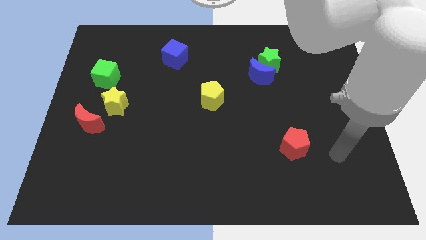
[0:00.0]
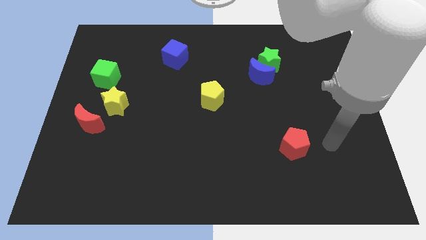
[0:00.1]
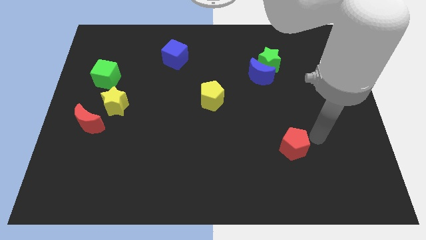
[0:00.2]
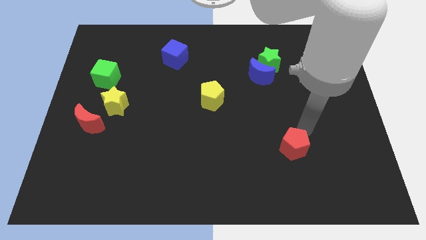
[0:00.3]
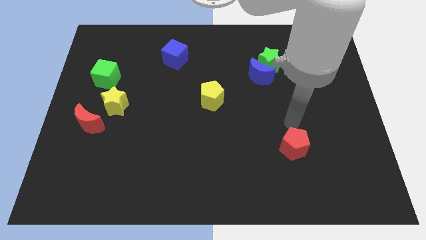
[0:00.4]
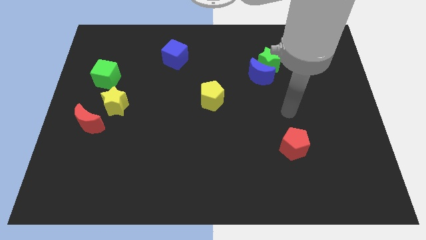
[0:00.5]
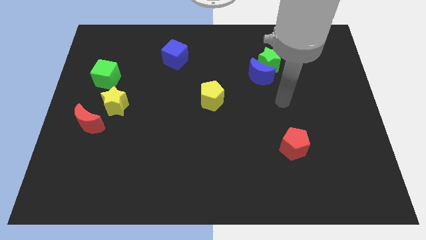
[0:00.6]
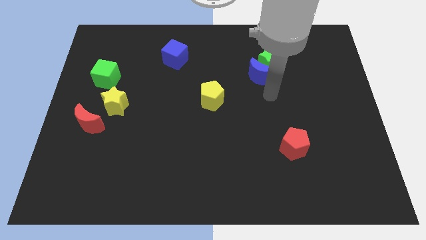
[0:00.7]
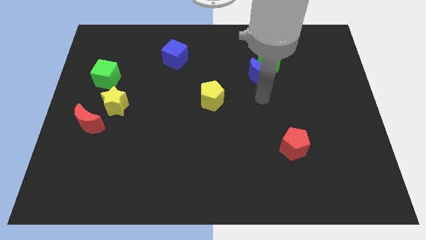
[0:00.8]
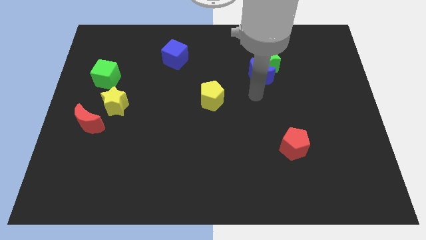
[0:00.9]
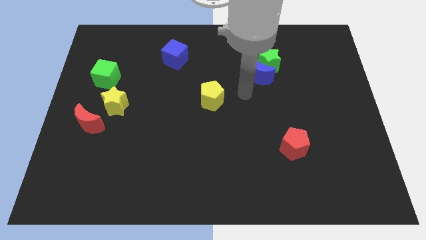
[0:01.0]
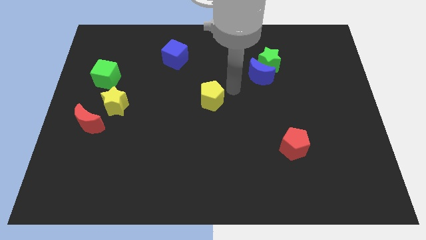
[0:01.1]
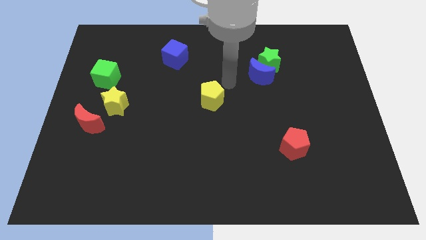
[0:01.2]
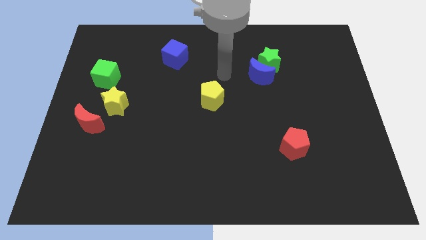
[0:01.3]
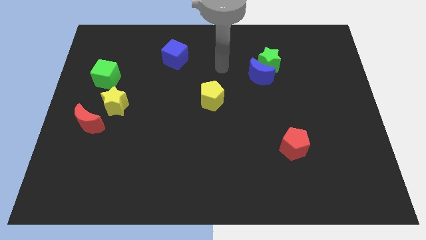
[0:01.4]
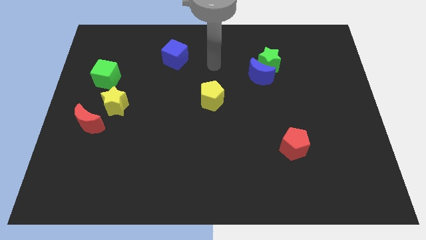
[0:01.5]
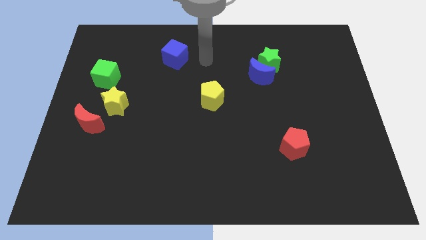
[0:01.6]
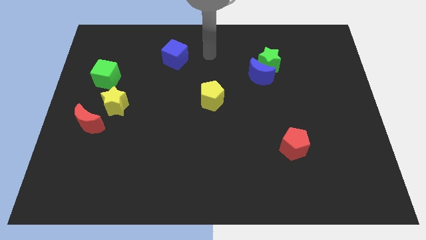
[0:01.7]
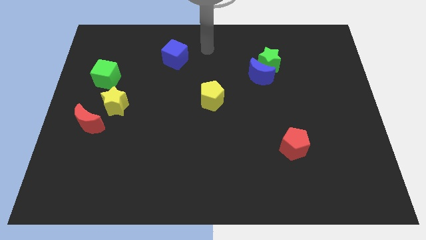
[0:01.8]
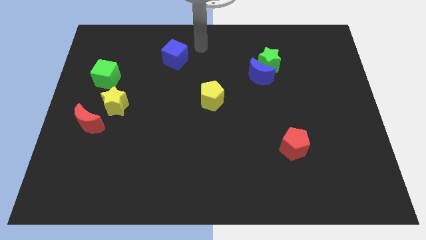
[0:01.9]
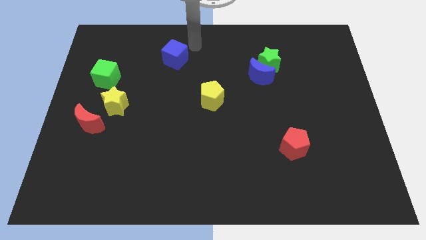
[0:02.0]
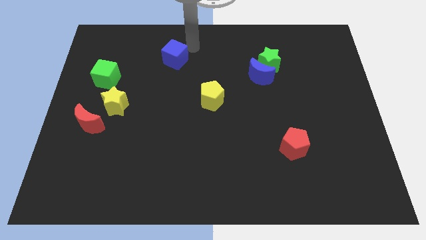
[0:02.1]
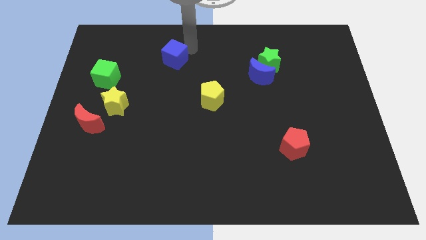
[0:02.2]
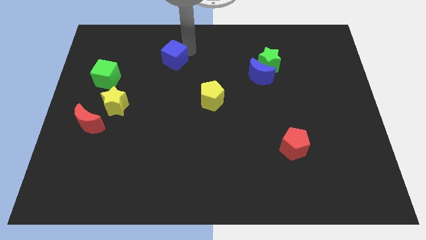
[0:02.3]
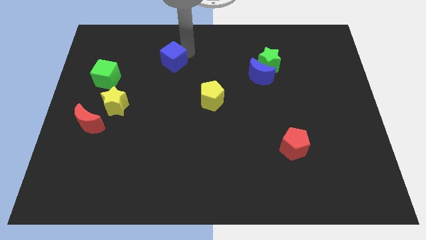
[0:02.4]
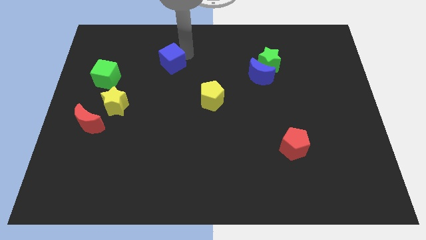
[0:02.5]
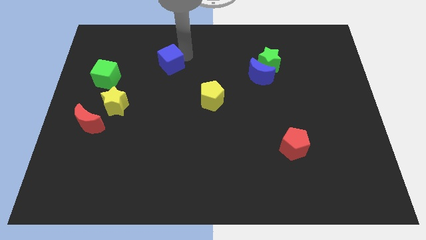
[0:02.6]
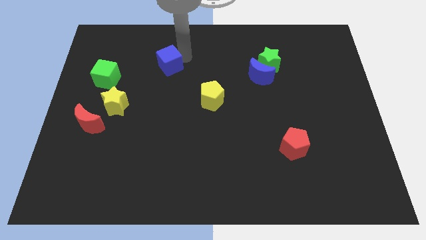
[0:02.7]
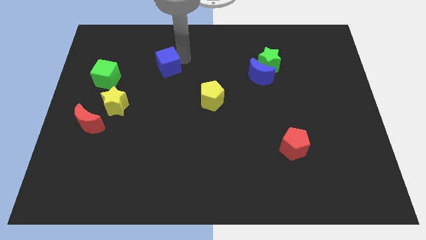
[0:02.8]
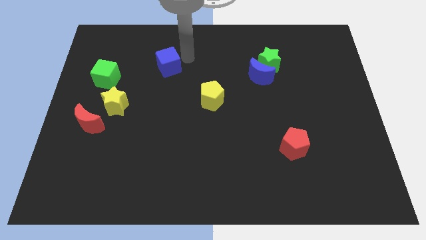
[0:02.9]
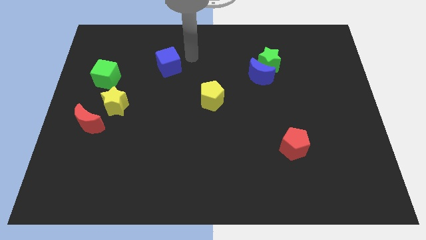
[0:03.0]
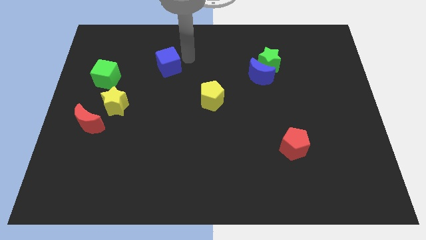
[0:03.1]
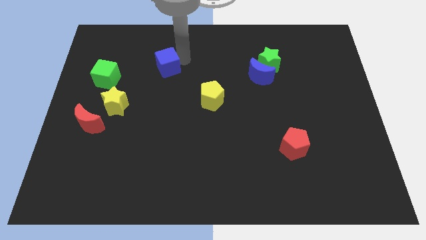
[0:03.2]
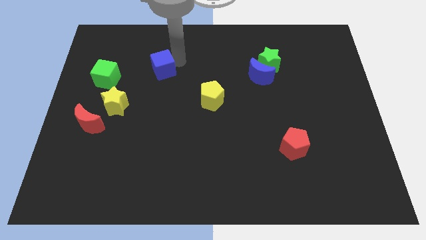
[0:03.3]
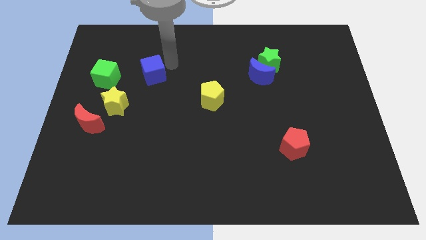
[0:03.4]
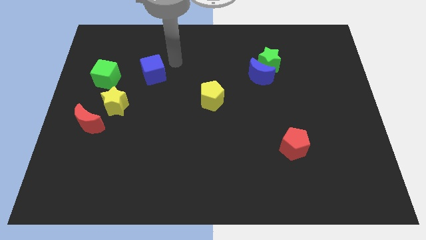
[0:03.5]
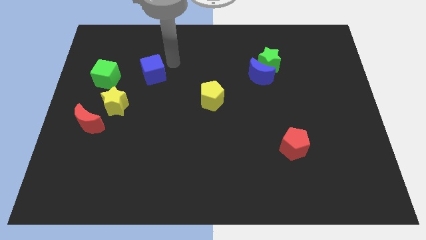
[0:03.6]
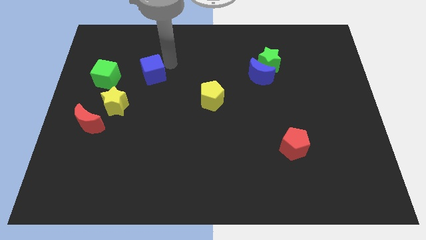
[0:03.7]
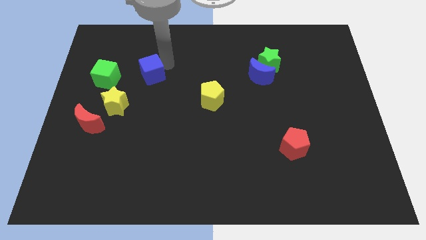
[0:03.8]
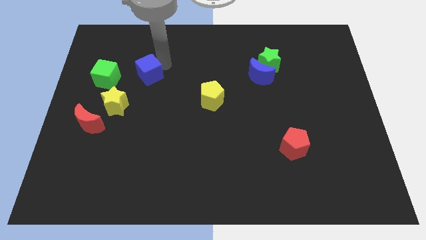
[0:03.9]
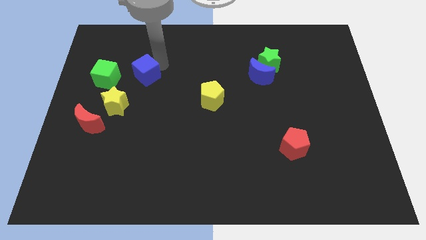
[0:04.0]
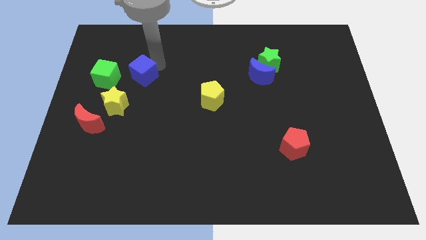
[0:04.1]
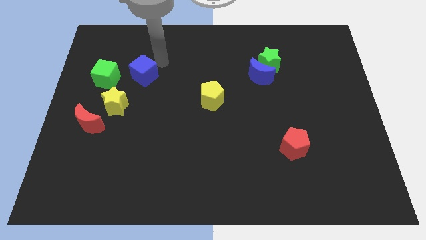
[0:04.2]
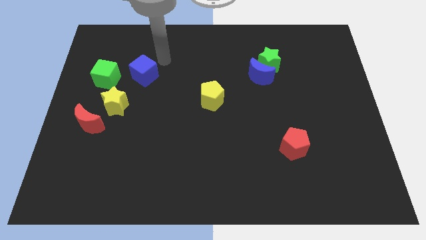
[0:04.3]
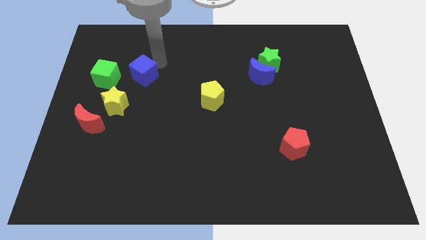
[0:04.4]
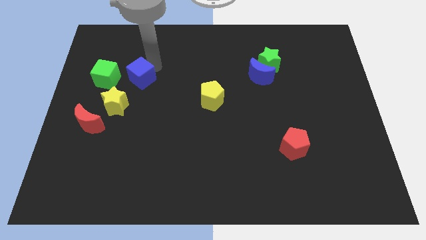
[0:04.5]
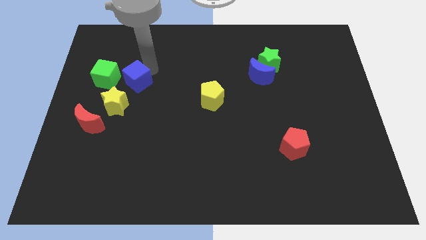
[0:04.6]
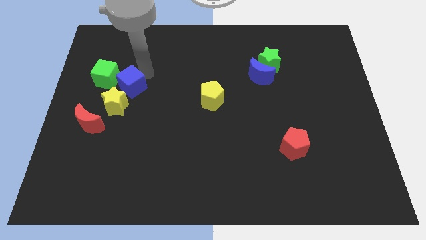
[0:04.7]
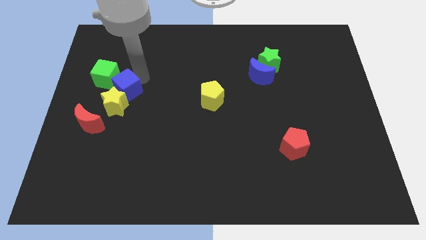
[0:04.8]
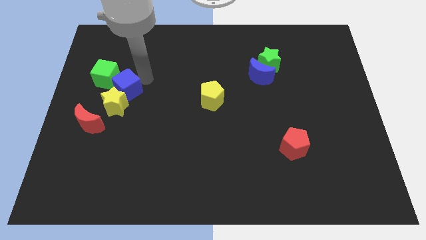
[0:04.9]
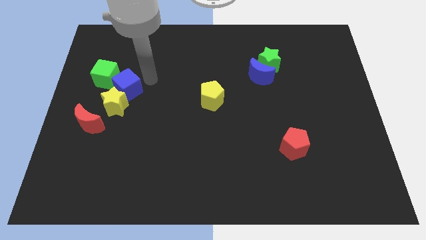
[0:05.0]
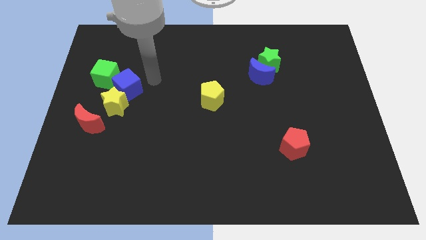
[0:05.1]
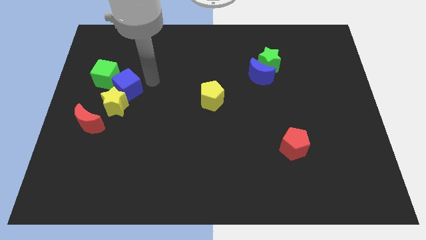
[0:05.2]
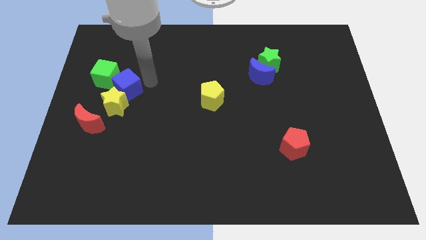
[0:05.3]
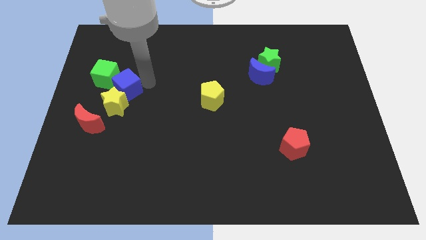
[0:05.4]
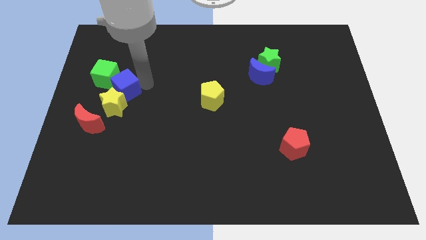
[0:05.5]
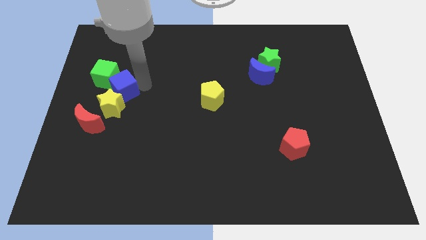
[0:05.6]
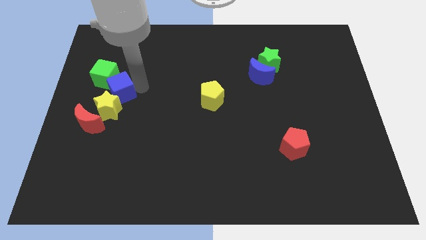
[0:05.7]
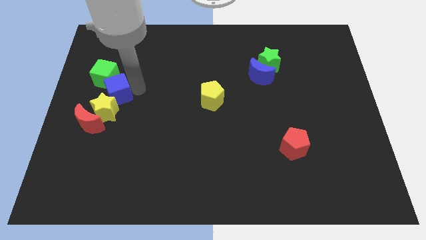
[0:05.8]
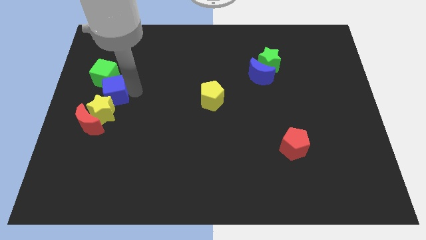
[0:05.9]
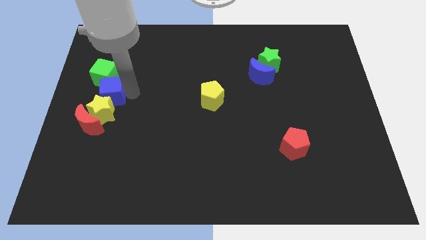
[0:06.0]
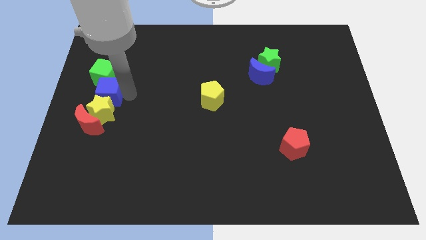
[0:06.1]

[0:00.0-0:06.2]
push the blue cube to the center left
